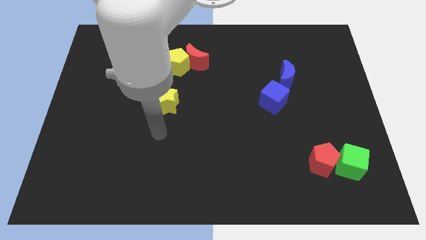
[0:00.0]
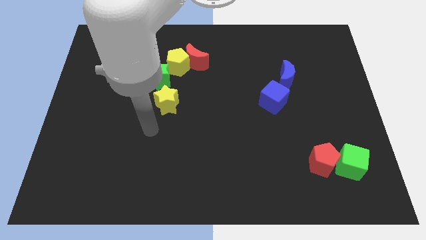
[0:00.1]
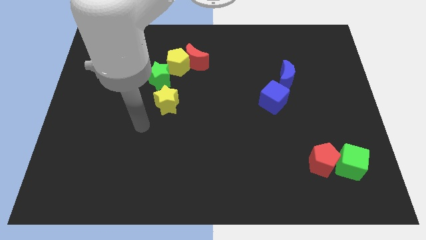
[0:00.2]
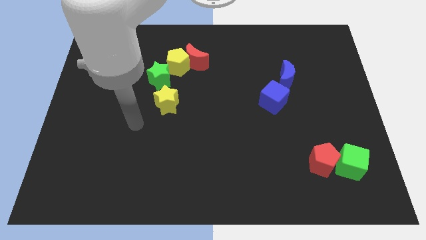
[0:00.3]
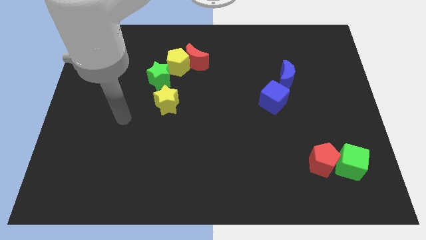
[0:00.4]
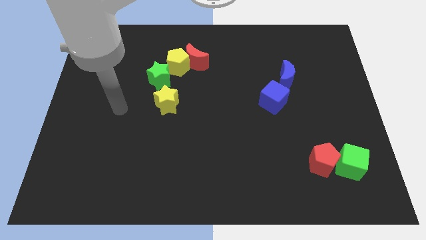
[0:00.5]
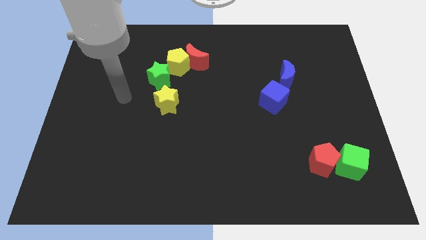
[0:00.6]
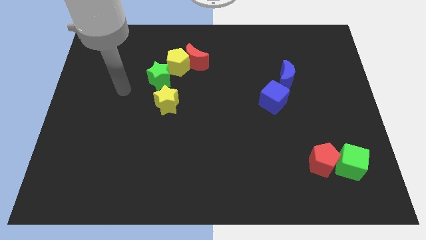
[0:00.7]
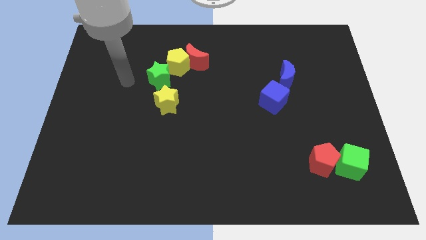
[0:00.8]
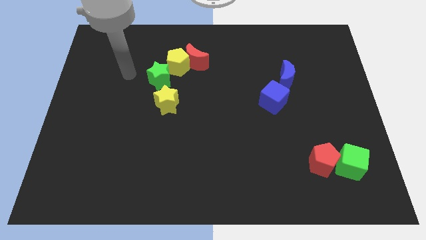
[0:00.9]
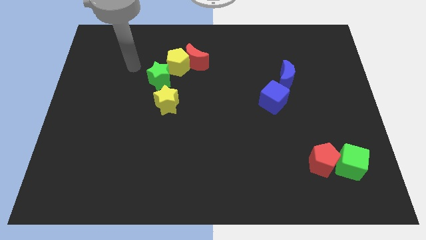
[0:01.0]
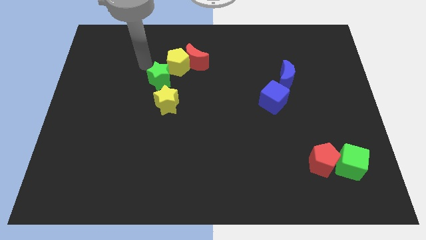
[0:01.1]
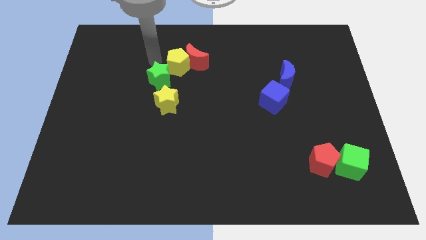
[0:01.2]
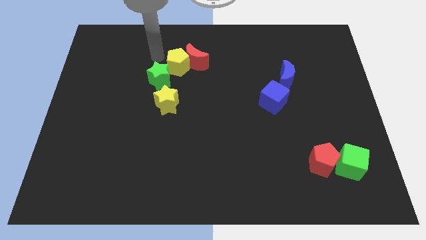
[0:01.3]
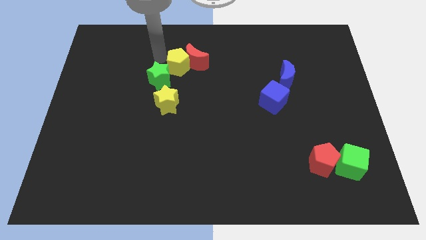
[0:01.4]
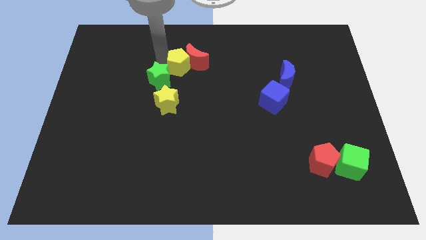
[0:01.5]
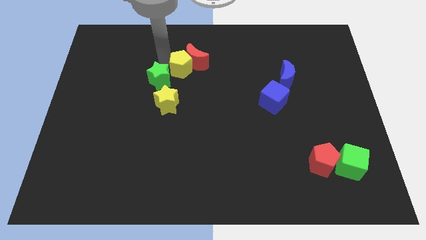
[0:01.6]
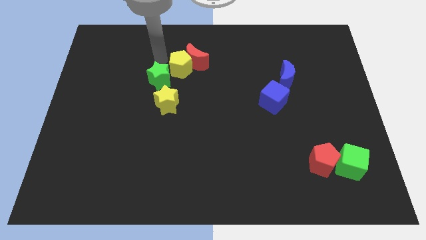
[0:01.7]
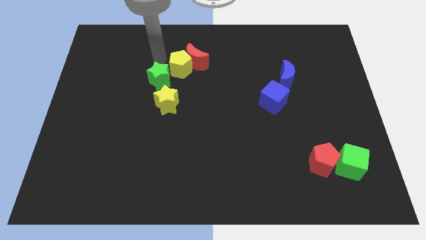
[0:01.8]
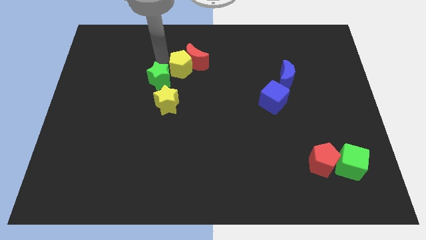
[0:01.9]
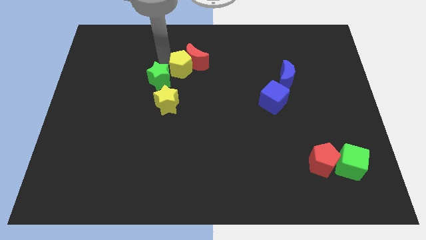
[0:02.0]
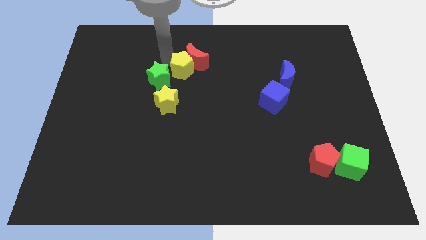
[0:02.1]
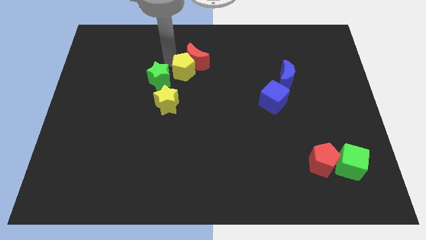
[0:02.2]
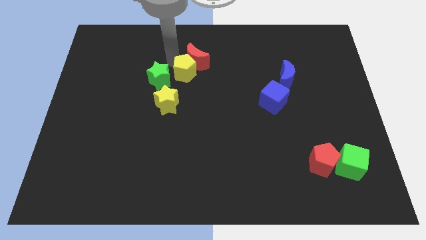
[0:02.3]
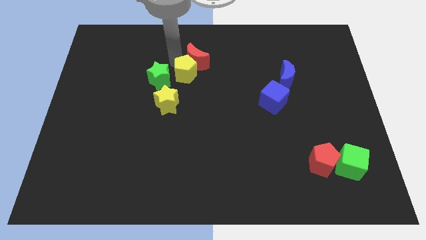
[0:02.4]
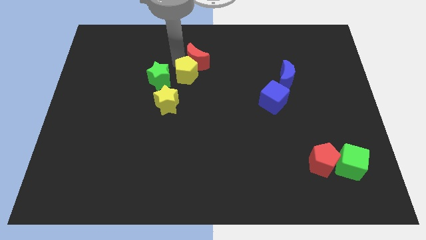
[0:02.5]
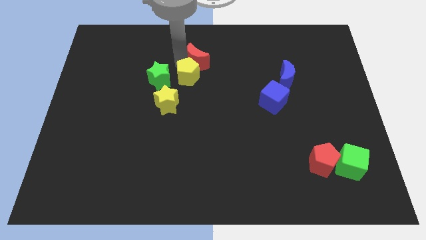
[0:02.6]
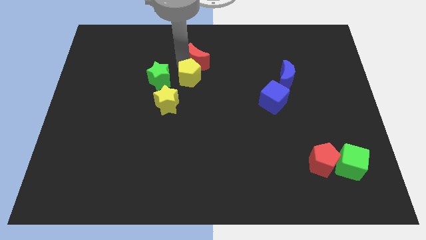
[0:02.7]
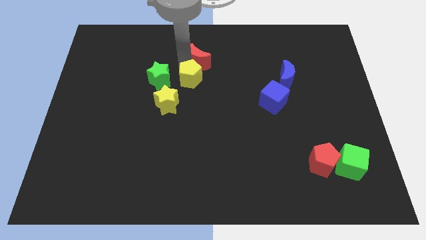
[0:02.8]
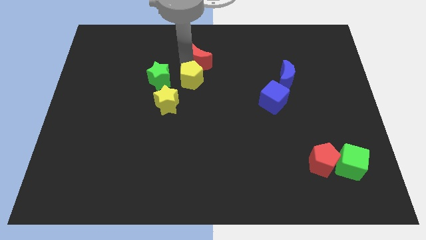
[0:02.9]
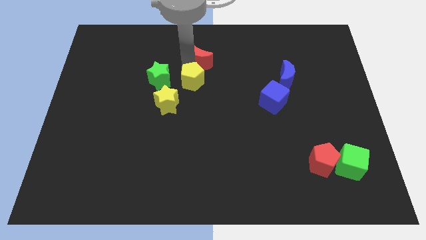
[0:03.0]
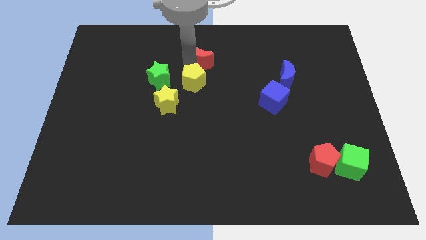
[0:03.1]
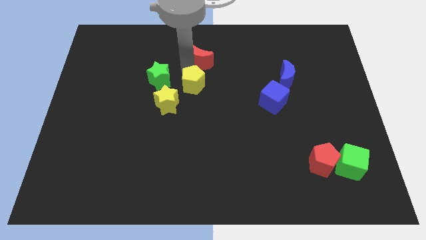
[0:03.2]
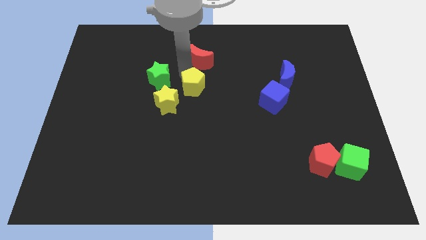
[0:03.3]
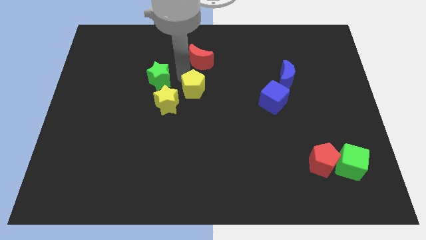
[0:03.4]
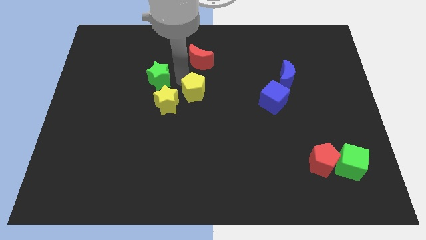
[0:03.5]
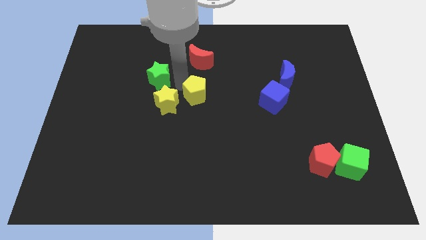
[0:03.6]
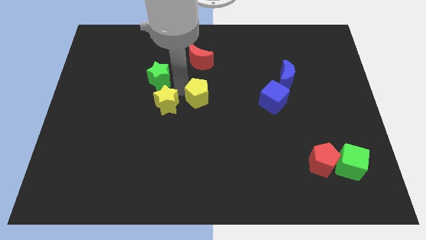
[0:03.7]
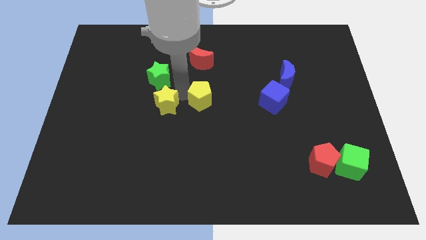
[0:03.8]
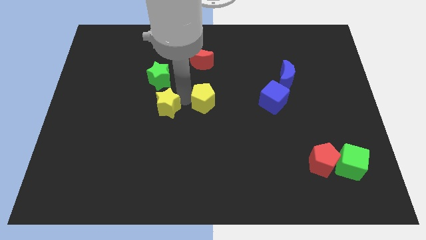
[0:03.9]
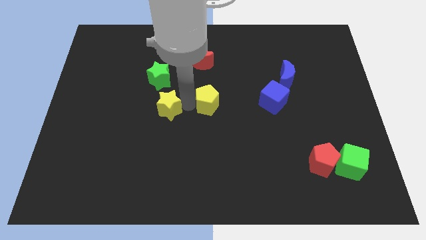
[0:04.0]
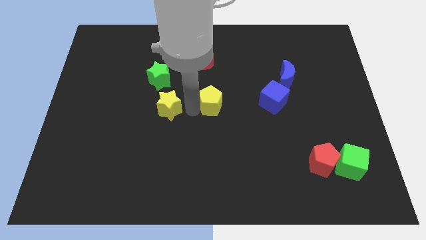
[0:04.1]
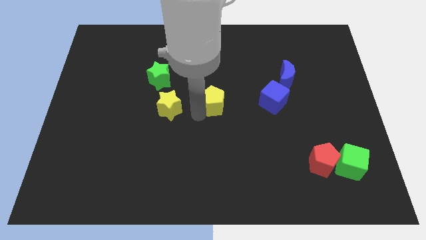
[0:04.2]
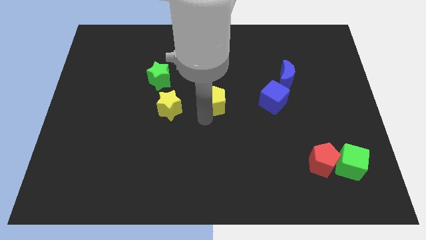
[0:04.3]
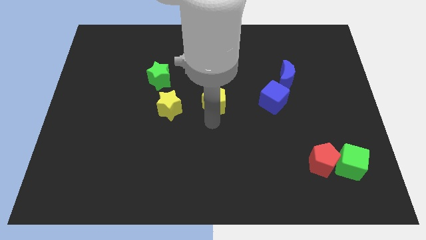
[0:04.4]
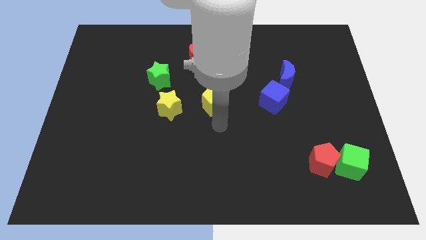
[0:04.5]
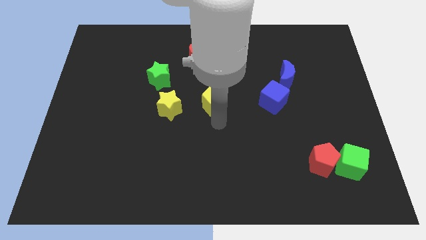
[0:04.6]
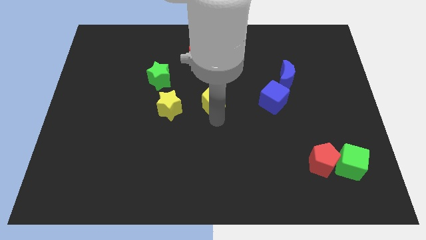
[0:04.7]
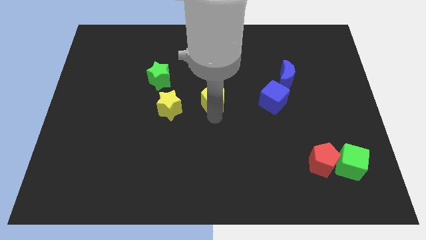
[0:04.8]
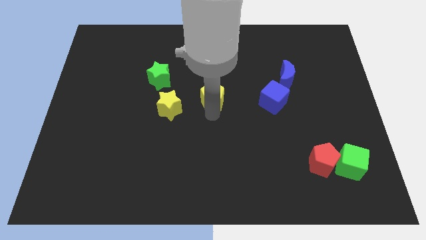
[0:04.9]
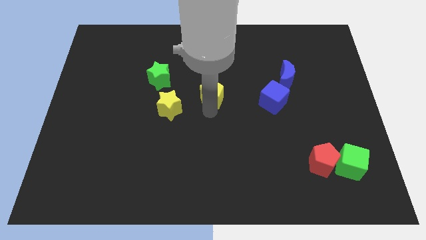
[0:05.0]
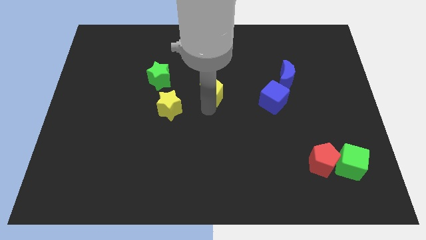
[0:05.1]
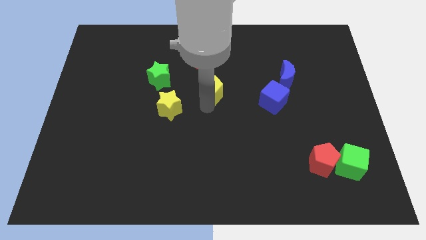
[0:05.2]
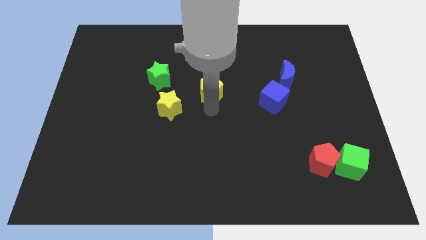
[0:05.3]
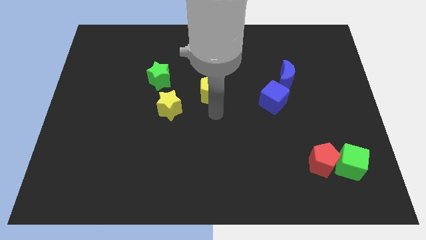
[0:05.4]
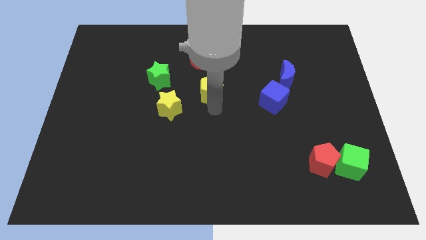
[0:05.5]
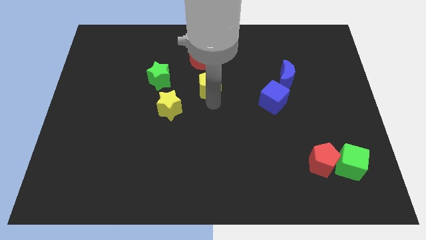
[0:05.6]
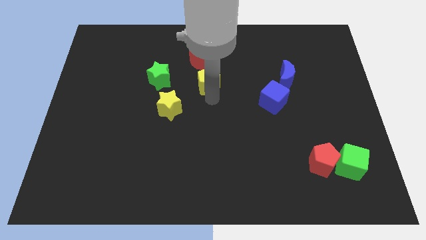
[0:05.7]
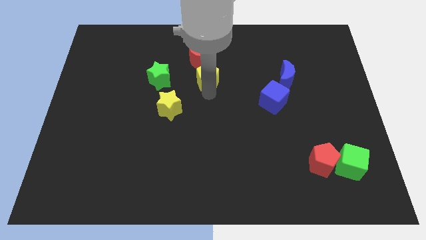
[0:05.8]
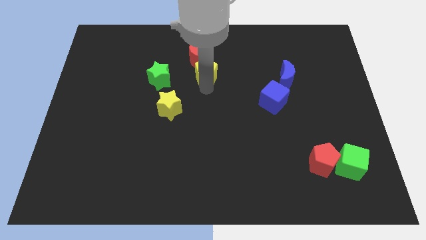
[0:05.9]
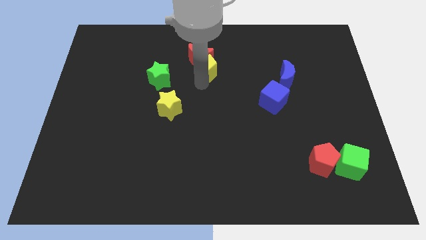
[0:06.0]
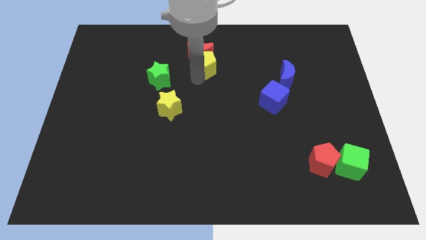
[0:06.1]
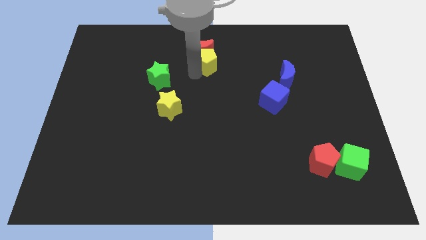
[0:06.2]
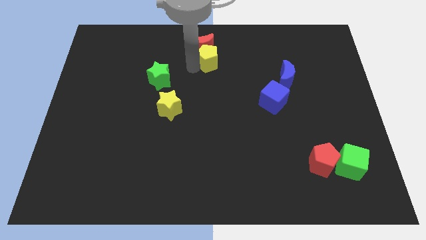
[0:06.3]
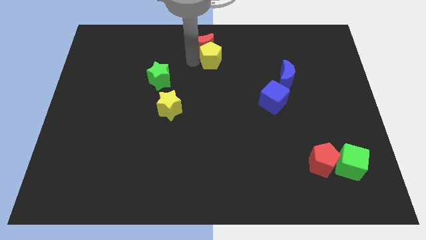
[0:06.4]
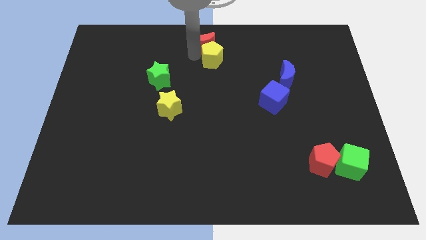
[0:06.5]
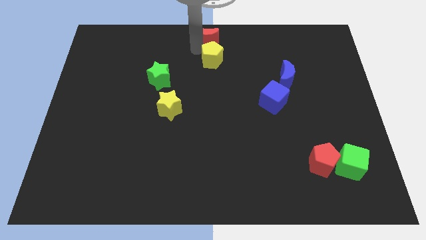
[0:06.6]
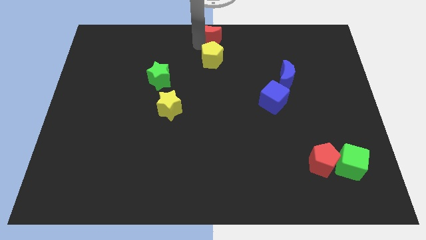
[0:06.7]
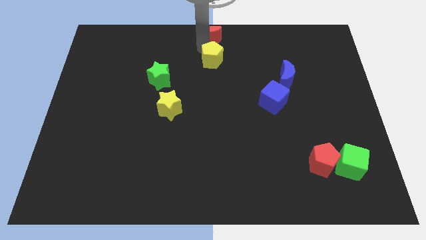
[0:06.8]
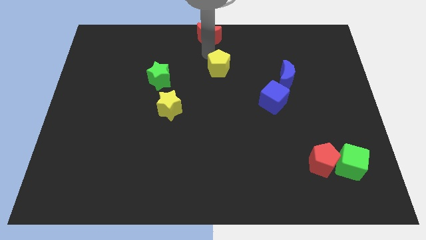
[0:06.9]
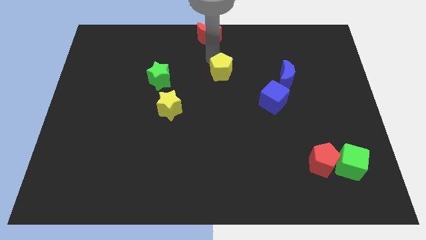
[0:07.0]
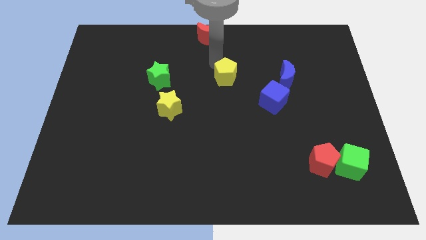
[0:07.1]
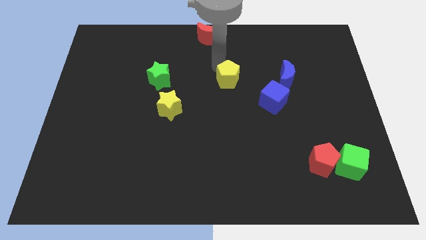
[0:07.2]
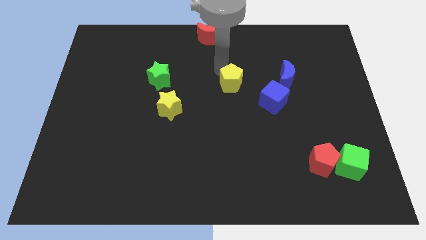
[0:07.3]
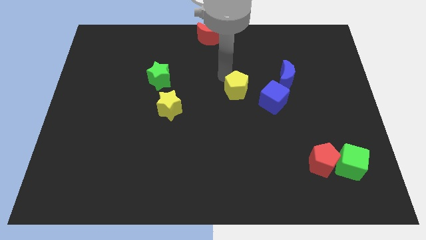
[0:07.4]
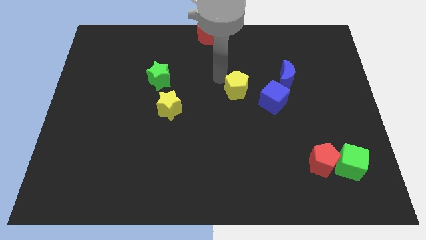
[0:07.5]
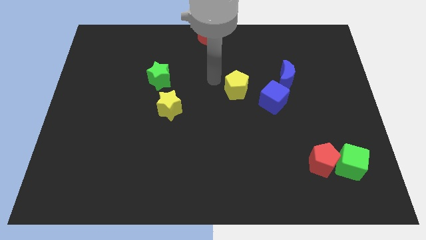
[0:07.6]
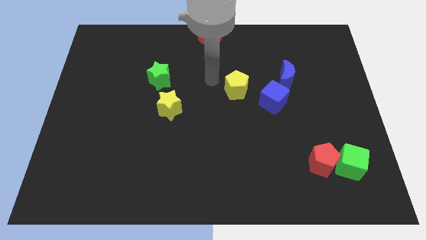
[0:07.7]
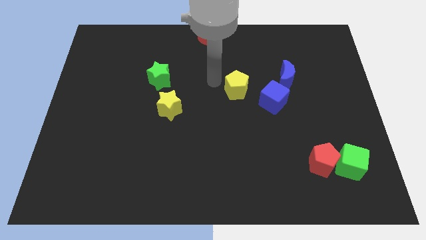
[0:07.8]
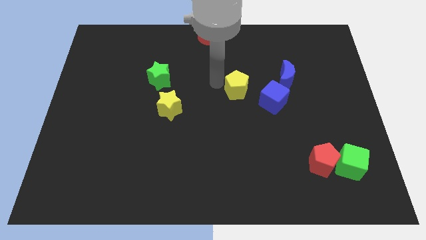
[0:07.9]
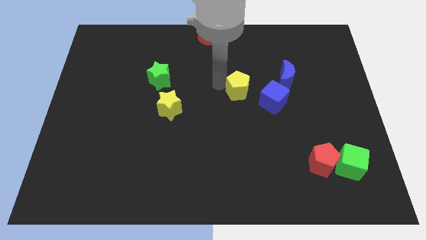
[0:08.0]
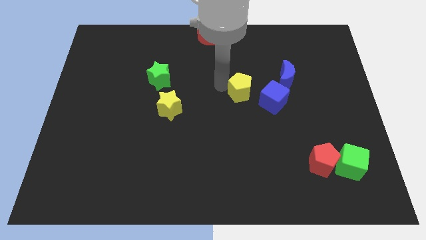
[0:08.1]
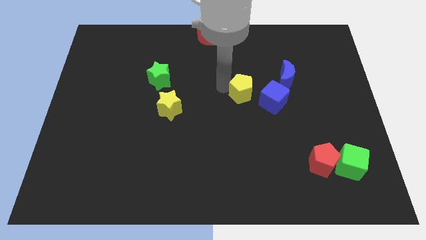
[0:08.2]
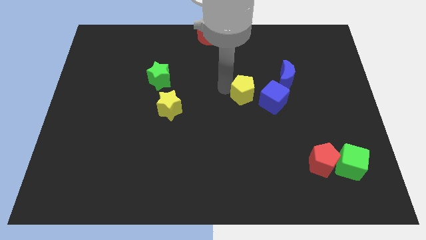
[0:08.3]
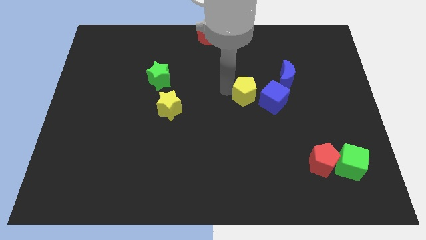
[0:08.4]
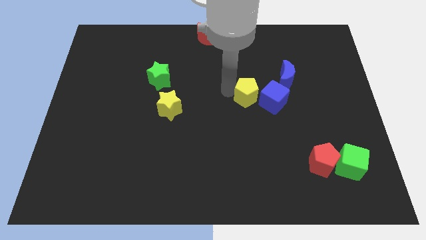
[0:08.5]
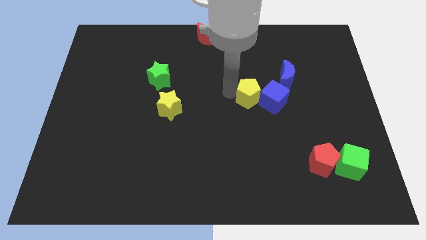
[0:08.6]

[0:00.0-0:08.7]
move the yellow pentagon towards the blue cube
